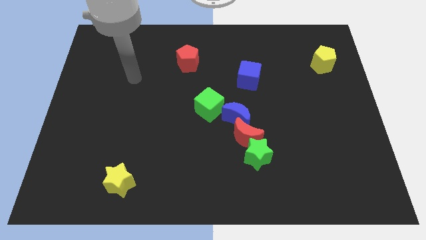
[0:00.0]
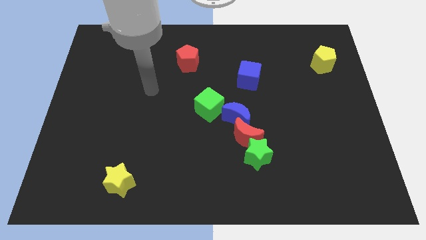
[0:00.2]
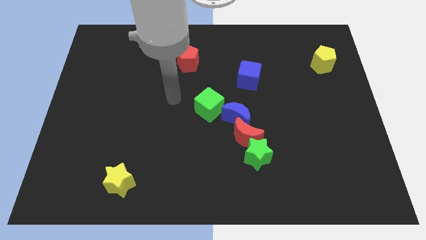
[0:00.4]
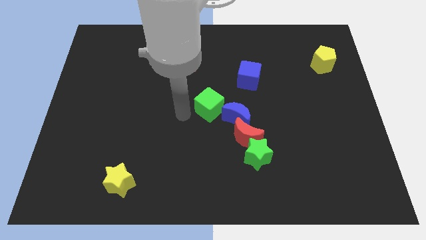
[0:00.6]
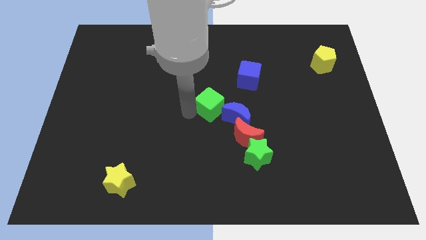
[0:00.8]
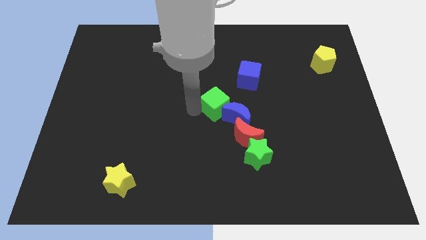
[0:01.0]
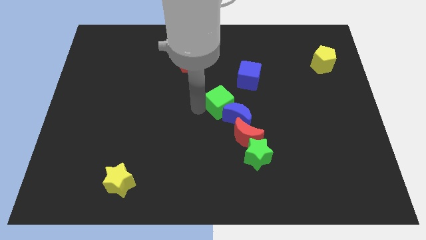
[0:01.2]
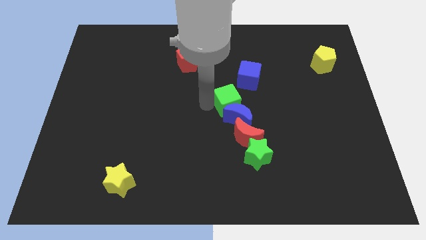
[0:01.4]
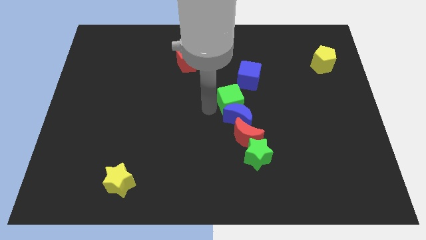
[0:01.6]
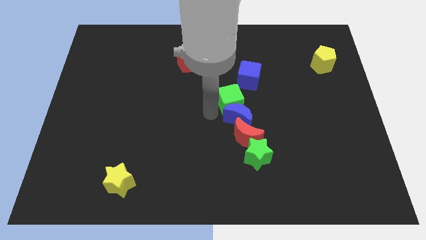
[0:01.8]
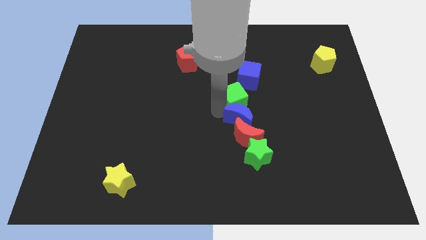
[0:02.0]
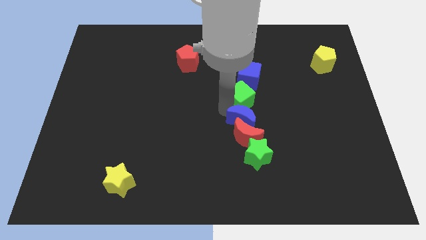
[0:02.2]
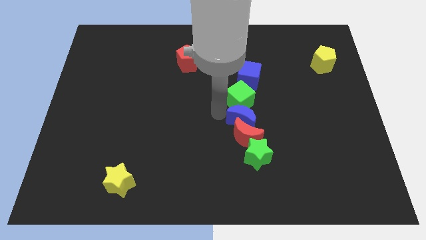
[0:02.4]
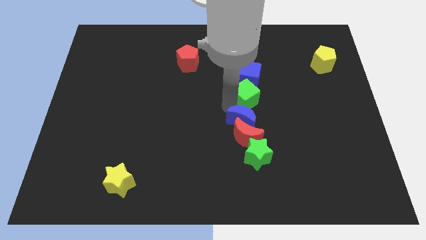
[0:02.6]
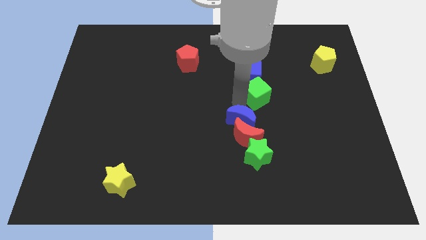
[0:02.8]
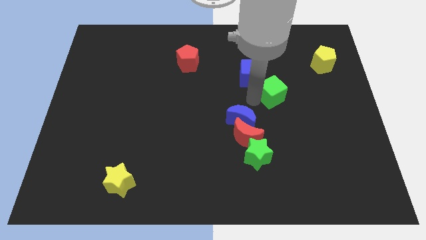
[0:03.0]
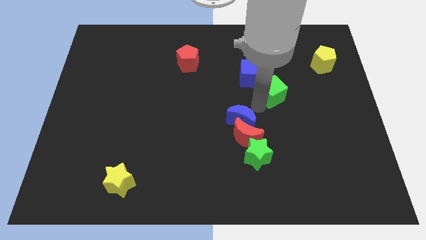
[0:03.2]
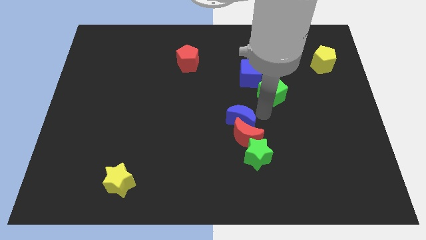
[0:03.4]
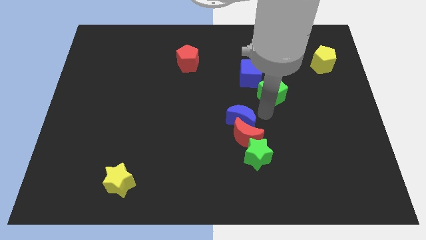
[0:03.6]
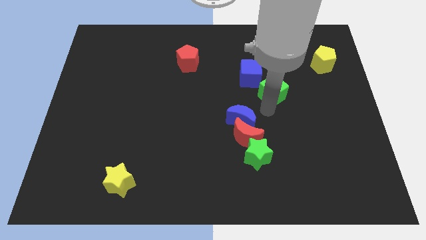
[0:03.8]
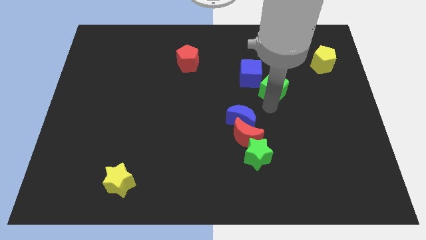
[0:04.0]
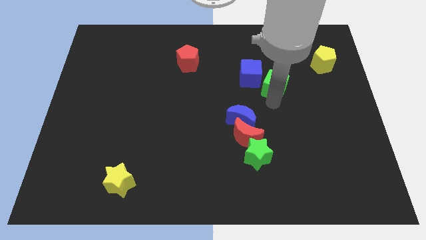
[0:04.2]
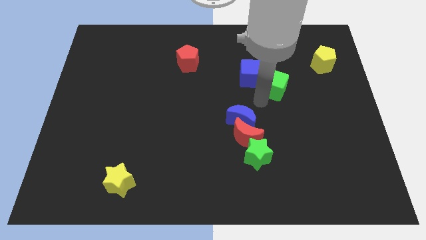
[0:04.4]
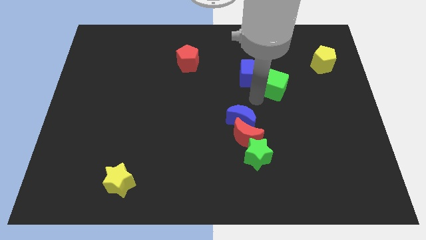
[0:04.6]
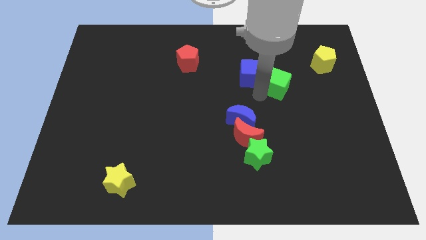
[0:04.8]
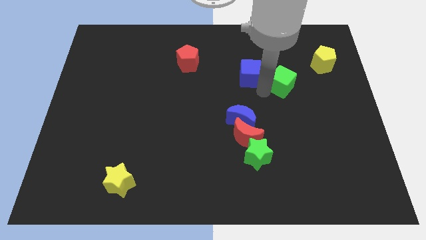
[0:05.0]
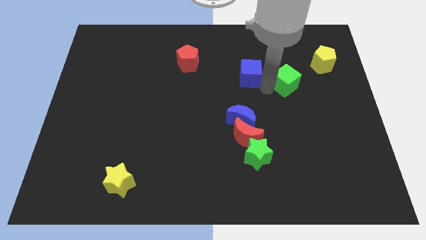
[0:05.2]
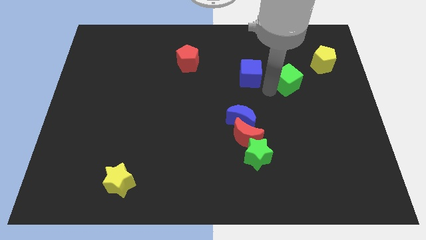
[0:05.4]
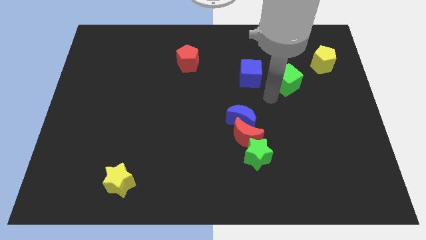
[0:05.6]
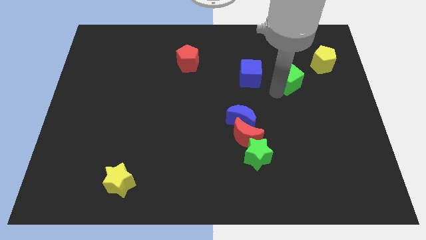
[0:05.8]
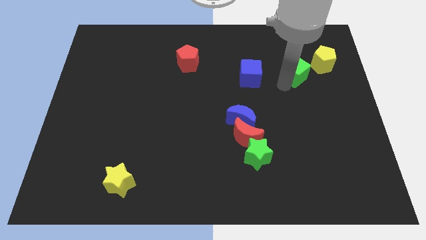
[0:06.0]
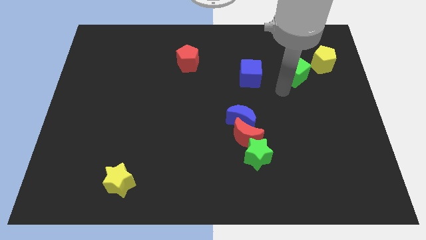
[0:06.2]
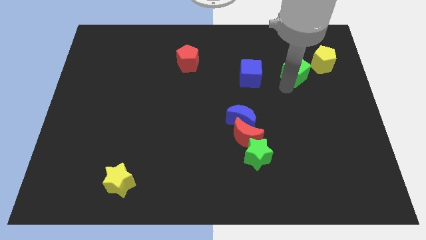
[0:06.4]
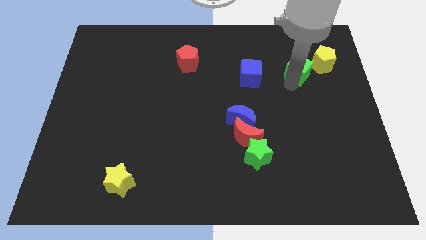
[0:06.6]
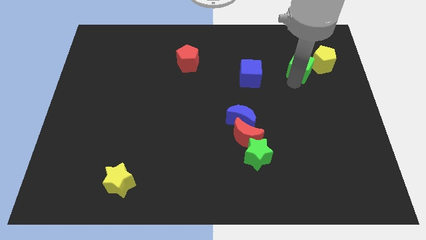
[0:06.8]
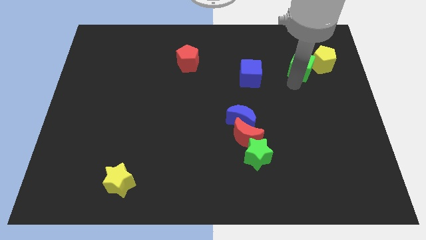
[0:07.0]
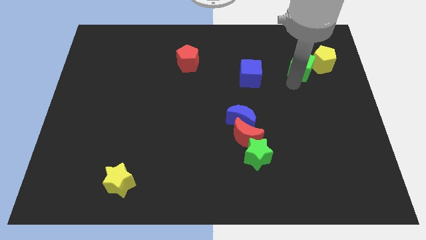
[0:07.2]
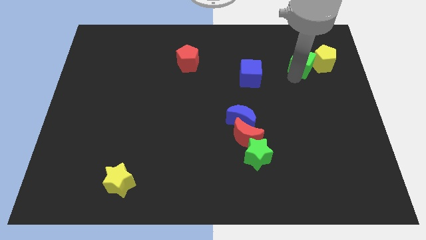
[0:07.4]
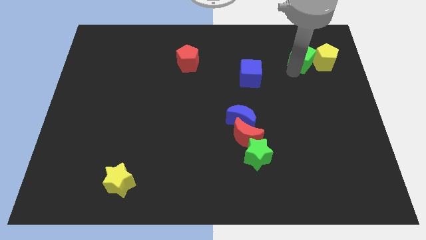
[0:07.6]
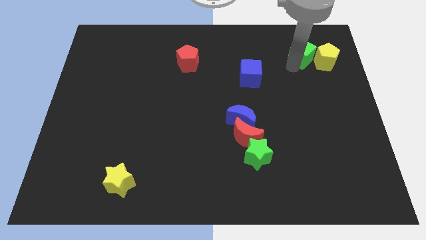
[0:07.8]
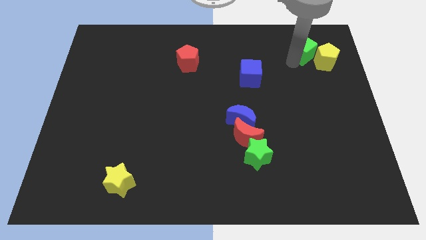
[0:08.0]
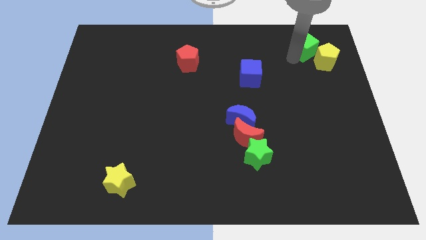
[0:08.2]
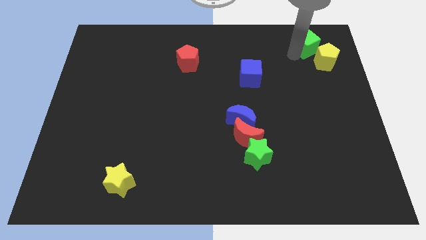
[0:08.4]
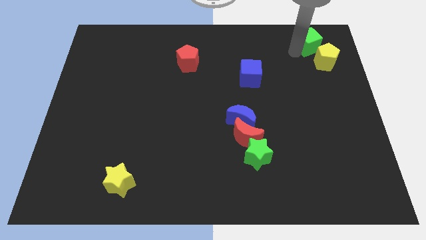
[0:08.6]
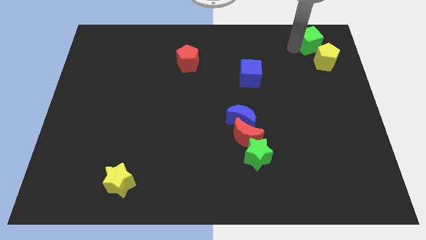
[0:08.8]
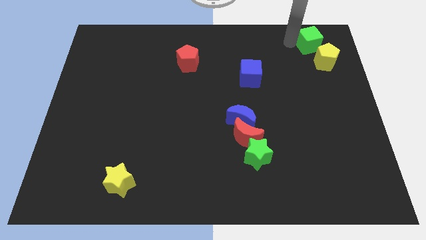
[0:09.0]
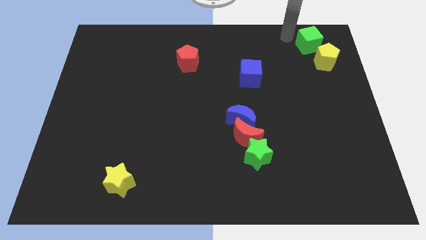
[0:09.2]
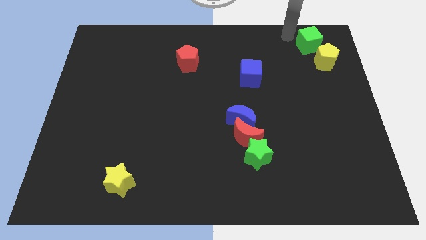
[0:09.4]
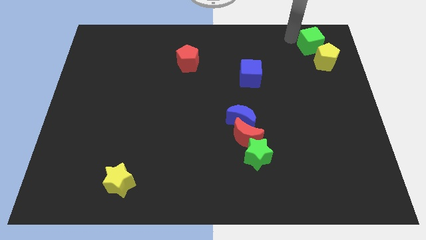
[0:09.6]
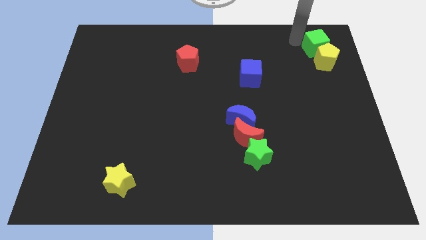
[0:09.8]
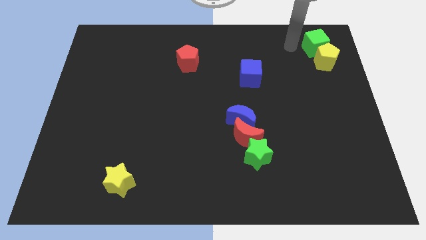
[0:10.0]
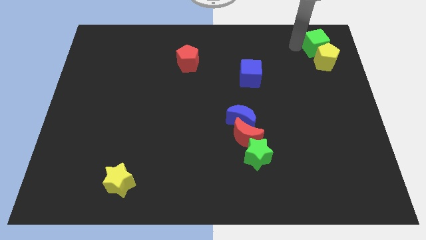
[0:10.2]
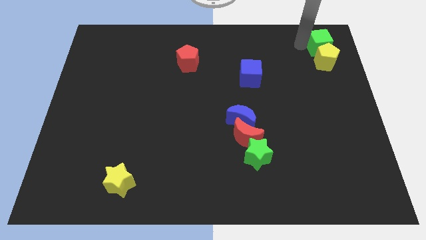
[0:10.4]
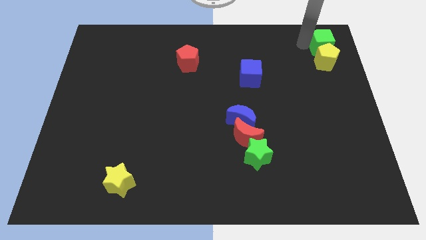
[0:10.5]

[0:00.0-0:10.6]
push the green cube to the top right corner

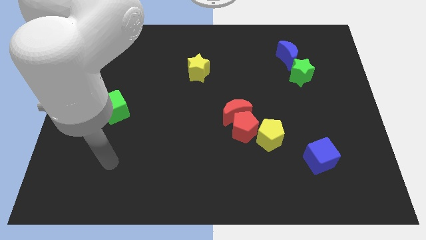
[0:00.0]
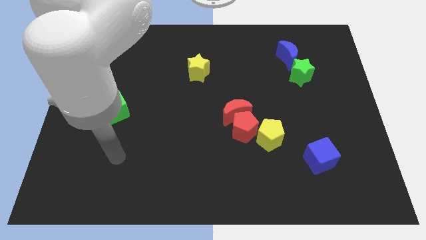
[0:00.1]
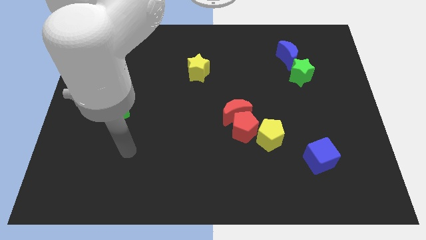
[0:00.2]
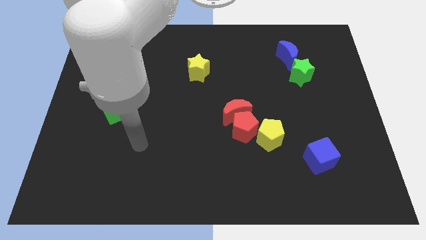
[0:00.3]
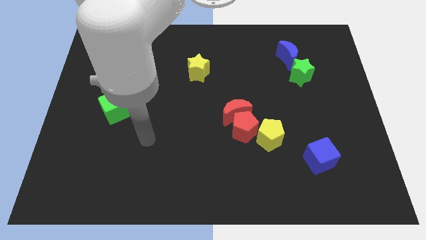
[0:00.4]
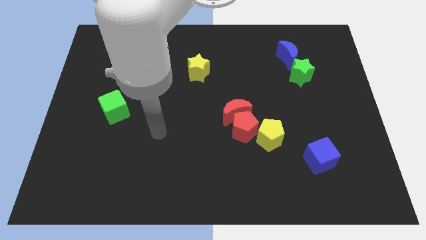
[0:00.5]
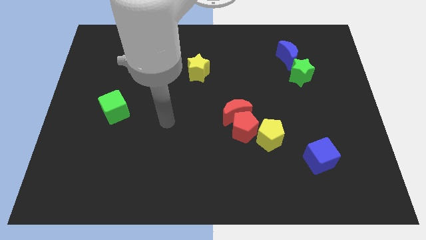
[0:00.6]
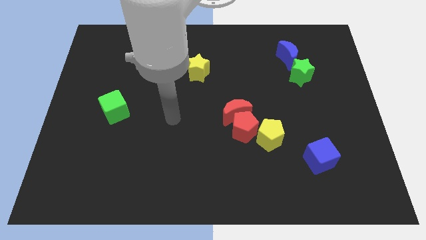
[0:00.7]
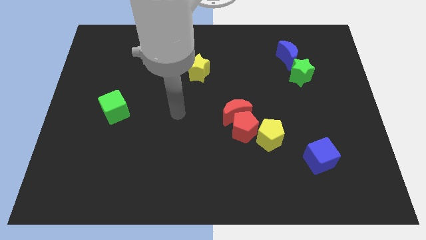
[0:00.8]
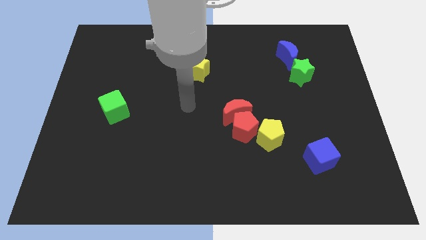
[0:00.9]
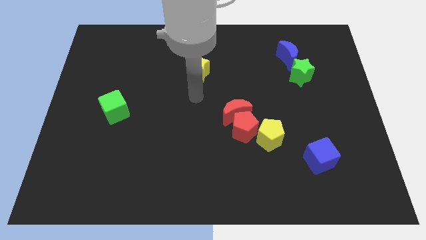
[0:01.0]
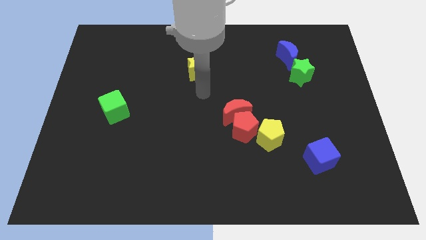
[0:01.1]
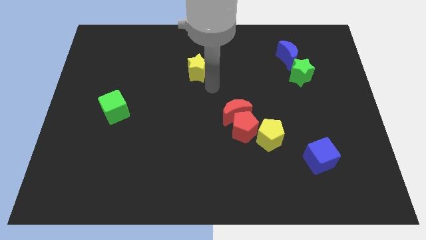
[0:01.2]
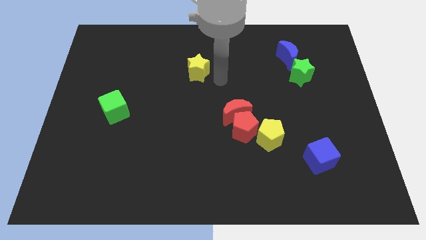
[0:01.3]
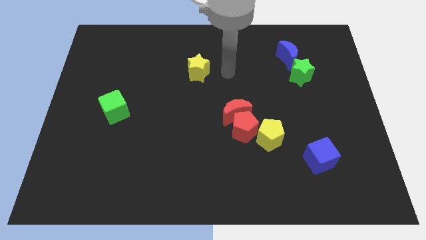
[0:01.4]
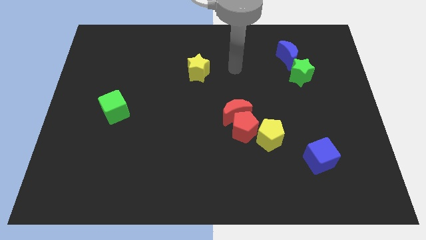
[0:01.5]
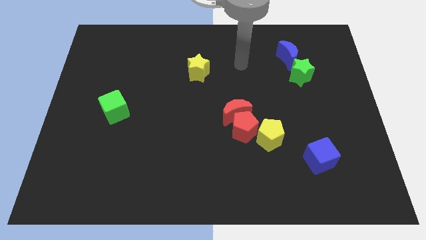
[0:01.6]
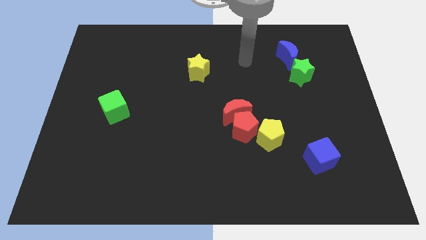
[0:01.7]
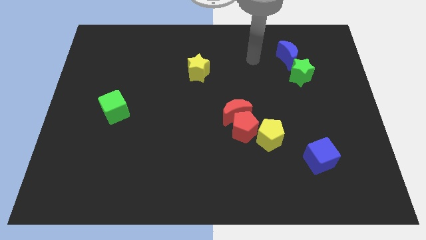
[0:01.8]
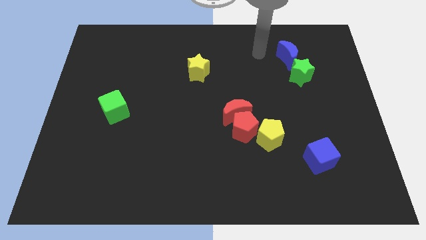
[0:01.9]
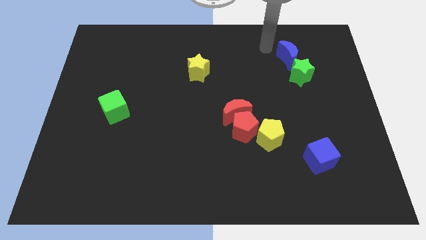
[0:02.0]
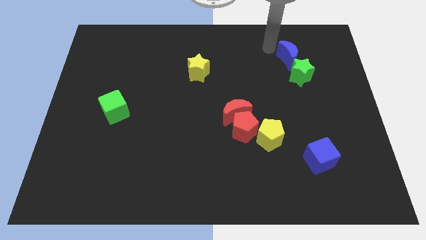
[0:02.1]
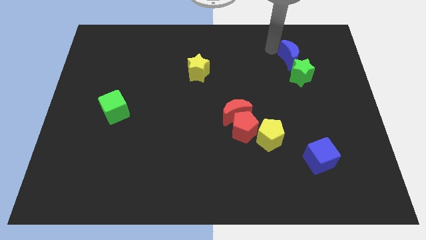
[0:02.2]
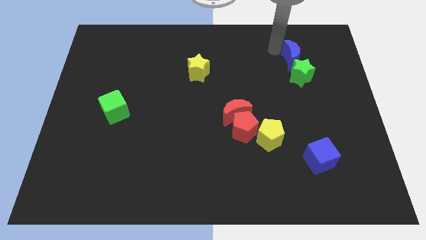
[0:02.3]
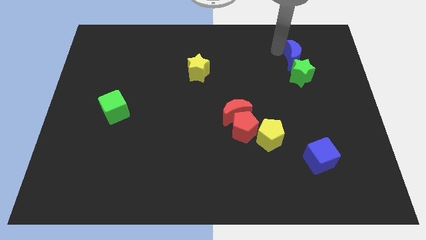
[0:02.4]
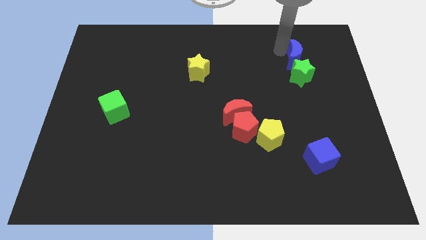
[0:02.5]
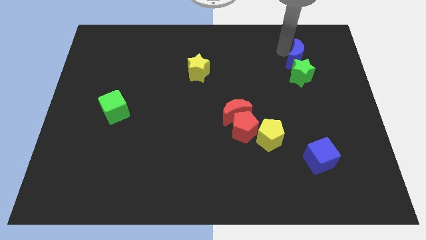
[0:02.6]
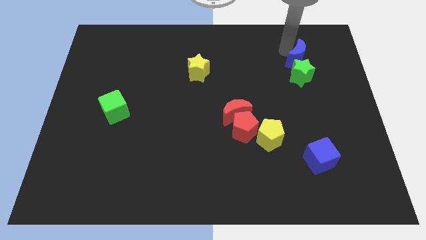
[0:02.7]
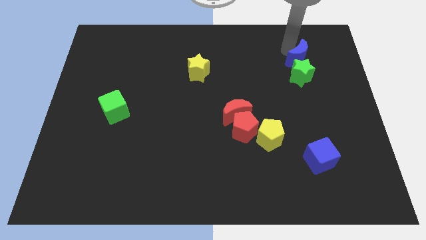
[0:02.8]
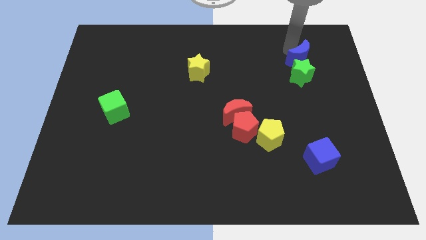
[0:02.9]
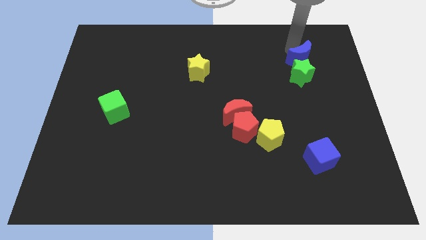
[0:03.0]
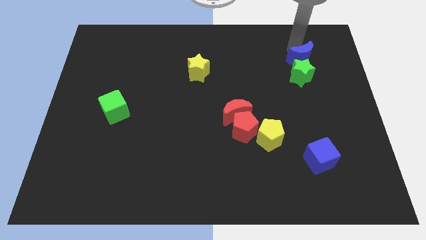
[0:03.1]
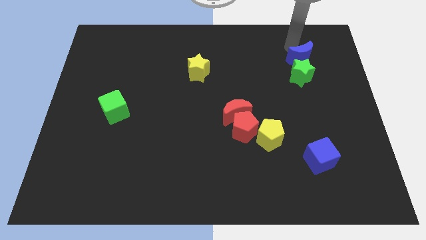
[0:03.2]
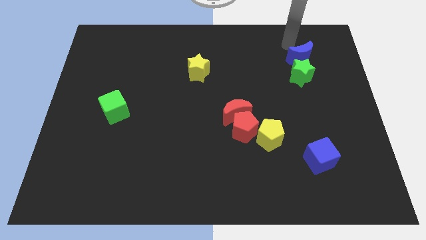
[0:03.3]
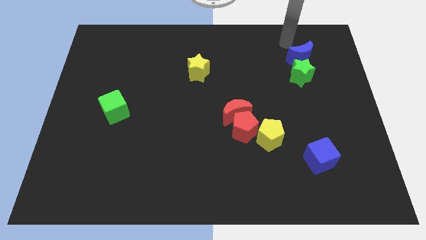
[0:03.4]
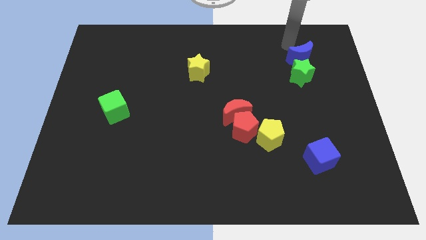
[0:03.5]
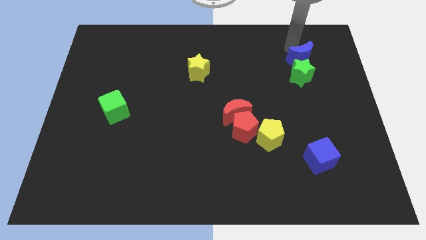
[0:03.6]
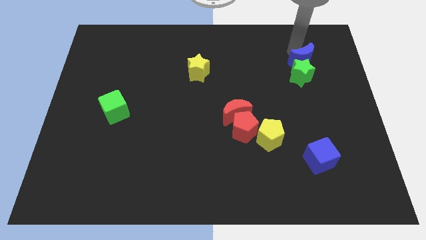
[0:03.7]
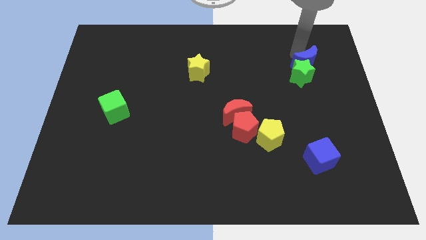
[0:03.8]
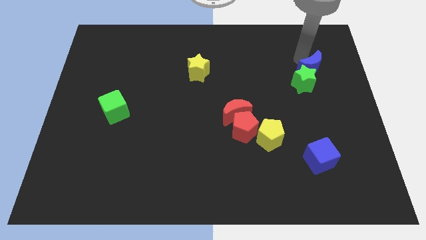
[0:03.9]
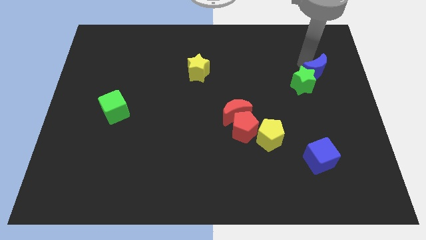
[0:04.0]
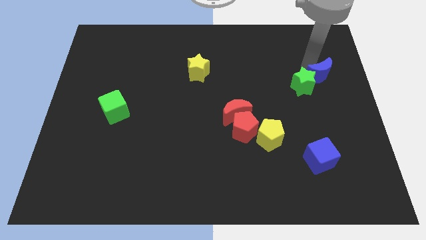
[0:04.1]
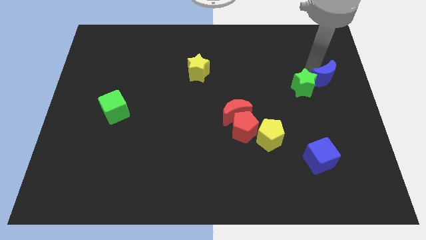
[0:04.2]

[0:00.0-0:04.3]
push the blue moon to the right side
